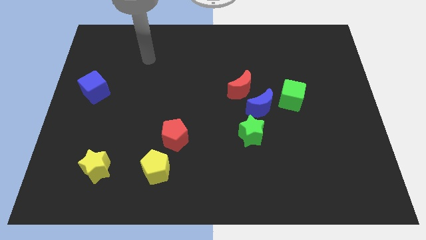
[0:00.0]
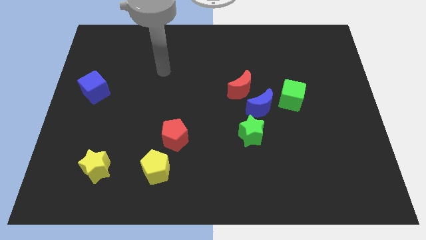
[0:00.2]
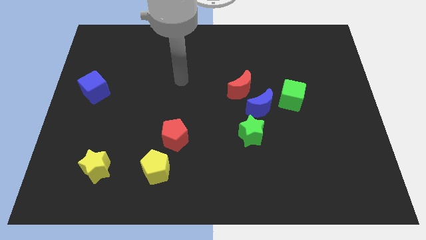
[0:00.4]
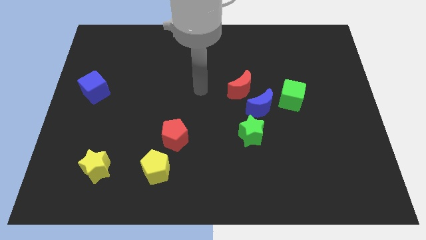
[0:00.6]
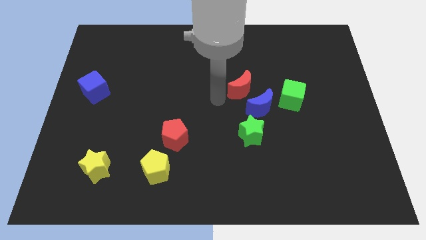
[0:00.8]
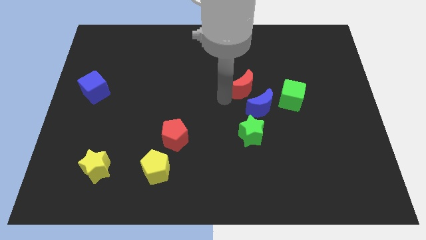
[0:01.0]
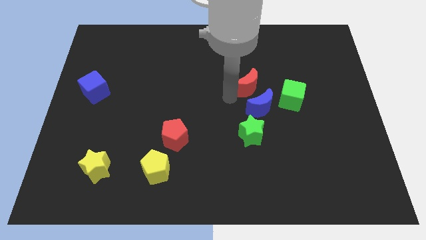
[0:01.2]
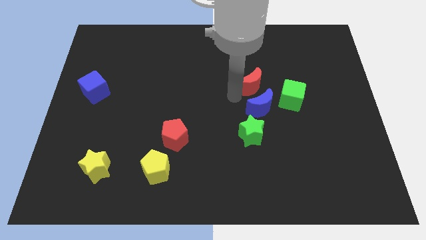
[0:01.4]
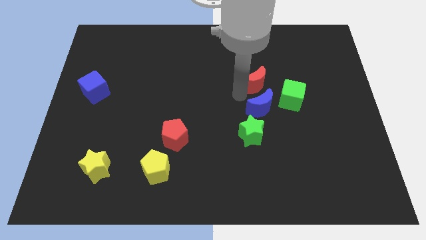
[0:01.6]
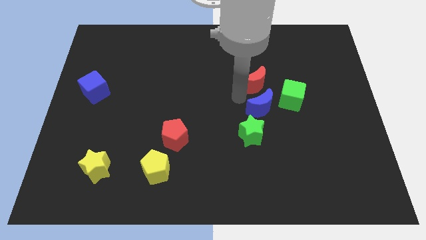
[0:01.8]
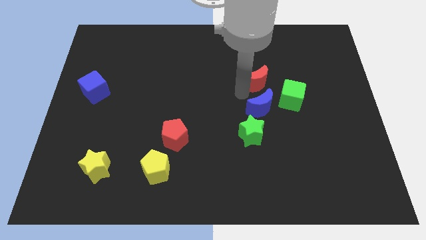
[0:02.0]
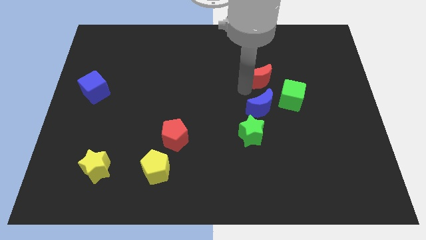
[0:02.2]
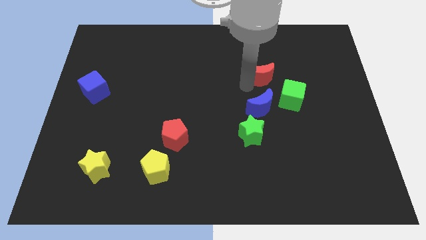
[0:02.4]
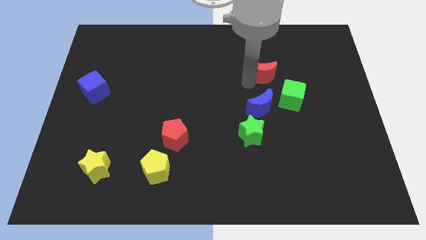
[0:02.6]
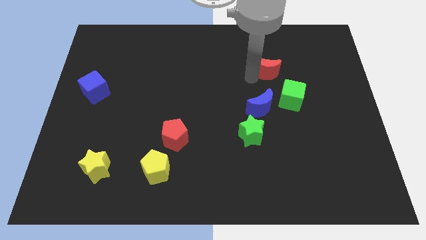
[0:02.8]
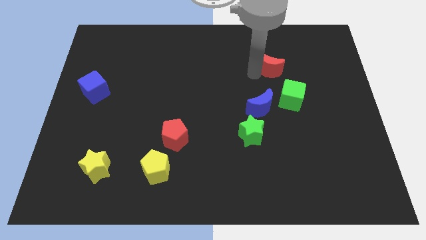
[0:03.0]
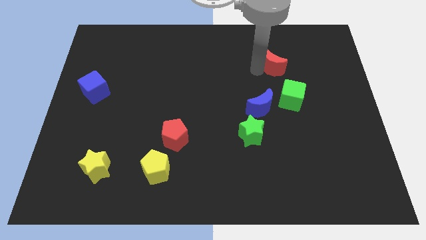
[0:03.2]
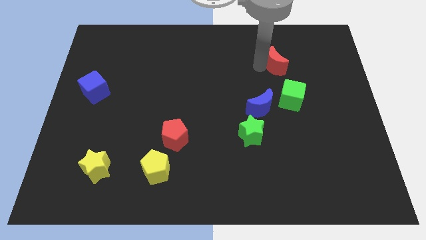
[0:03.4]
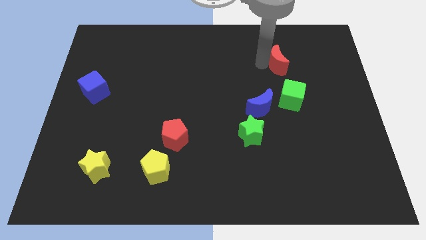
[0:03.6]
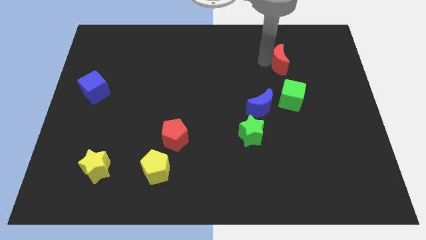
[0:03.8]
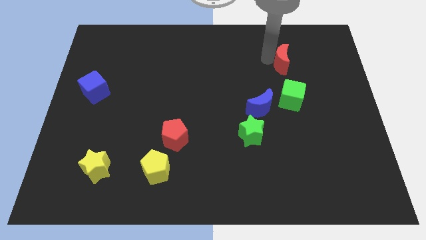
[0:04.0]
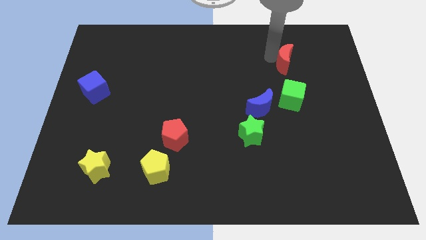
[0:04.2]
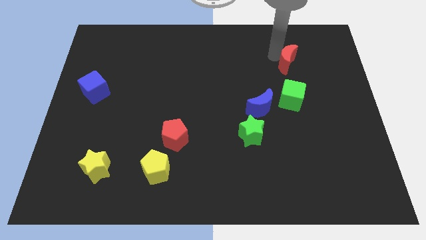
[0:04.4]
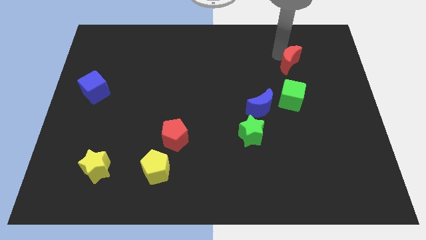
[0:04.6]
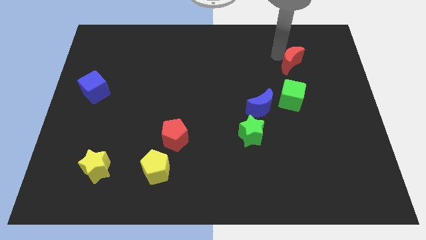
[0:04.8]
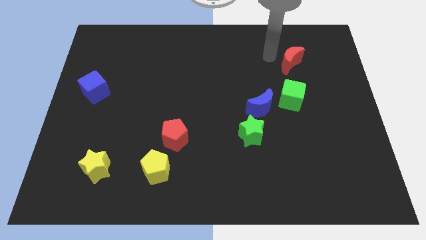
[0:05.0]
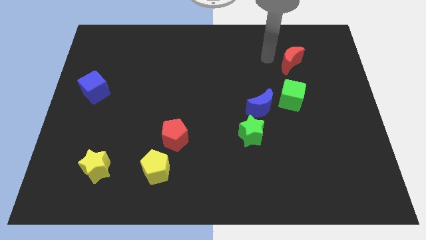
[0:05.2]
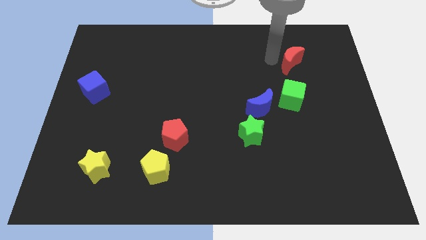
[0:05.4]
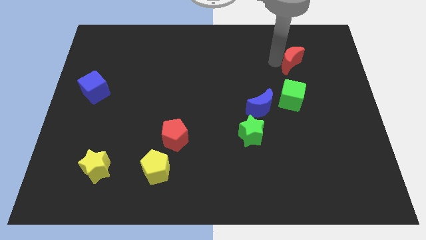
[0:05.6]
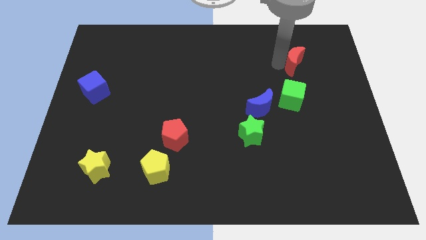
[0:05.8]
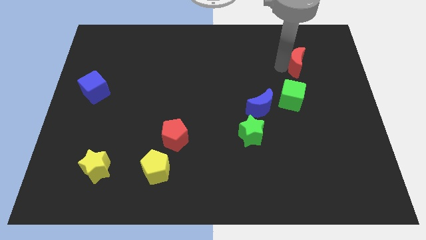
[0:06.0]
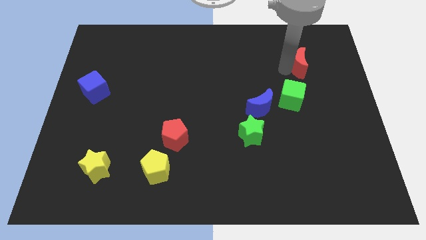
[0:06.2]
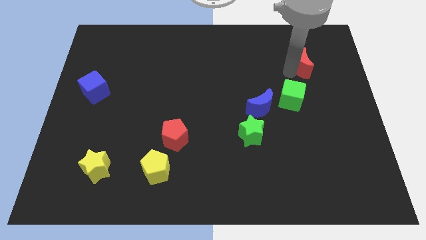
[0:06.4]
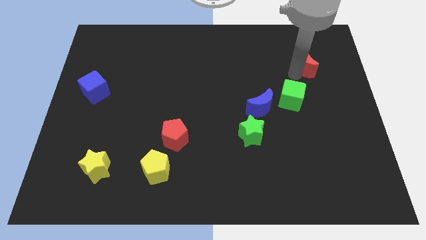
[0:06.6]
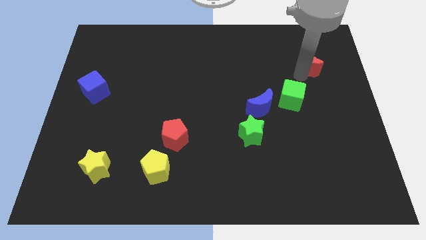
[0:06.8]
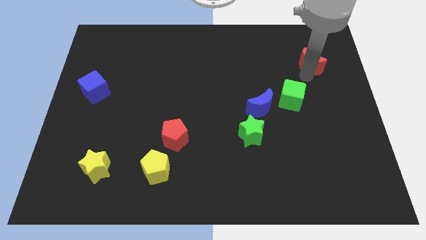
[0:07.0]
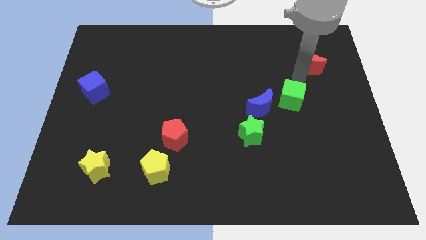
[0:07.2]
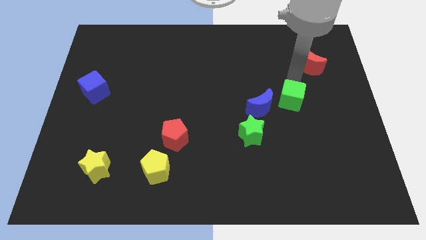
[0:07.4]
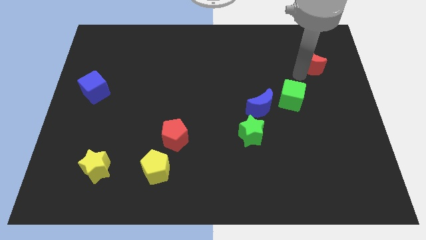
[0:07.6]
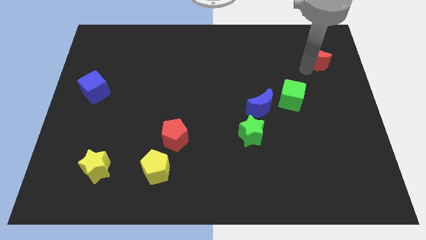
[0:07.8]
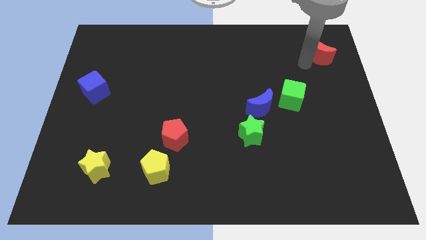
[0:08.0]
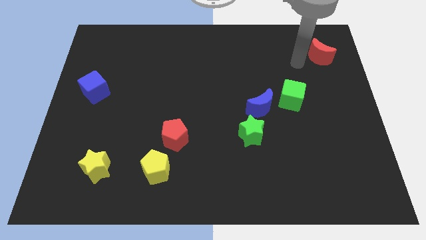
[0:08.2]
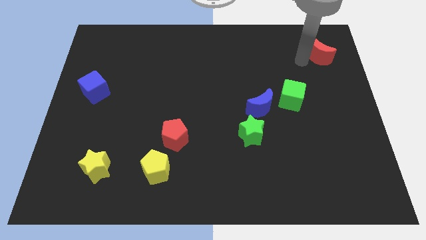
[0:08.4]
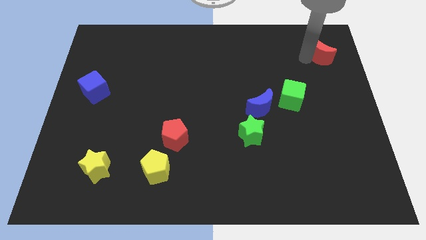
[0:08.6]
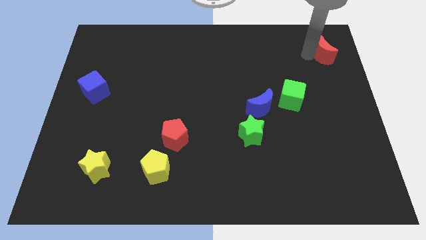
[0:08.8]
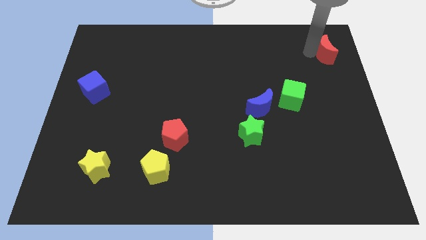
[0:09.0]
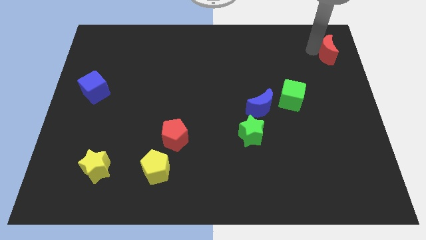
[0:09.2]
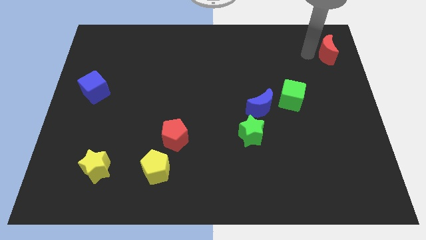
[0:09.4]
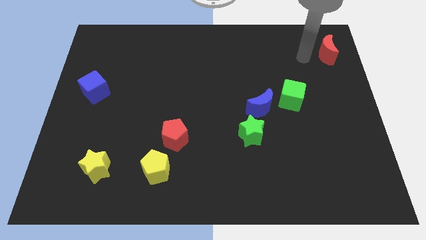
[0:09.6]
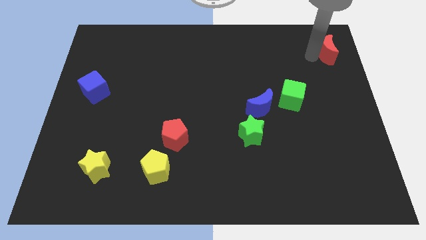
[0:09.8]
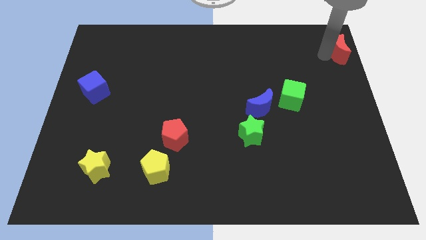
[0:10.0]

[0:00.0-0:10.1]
put the red moon to the top right corner

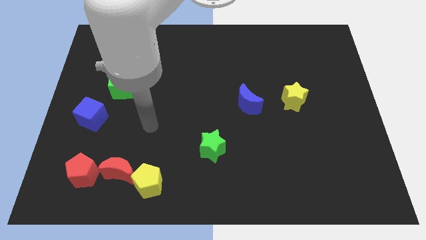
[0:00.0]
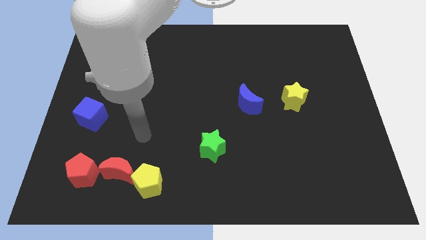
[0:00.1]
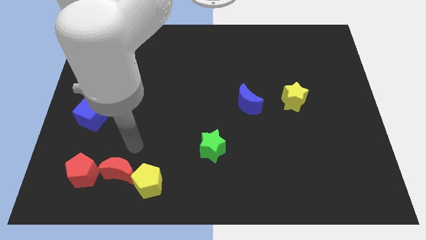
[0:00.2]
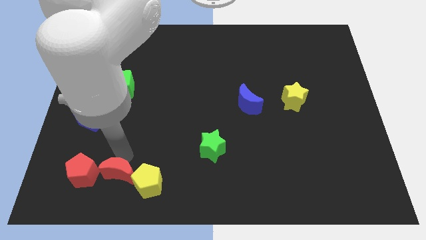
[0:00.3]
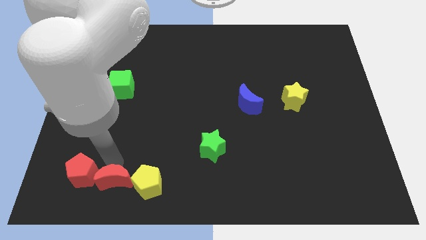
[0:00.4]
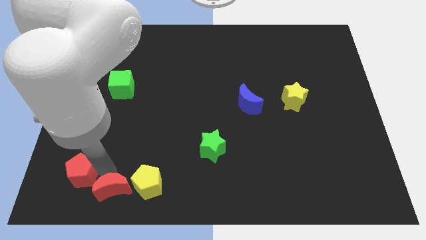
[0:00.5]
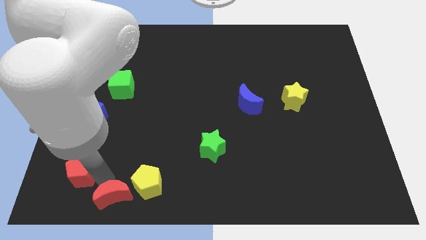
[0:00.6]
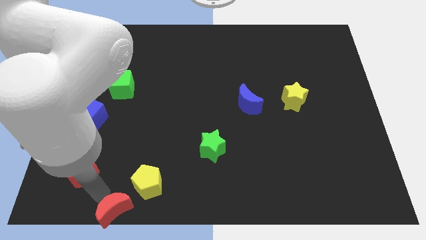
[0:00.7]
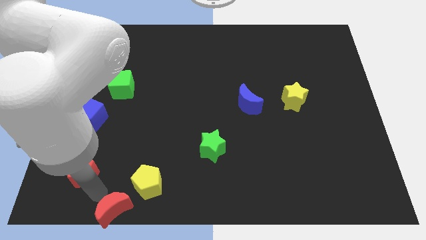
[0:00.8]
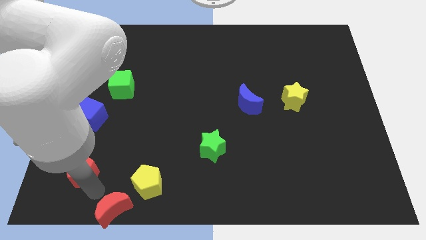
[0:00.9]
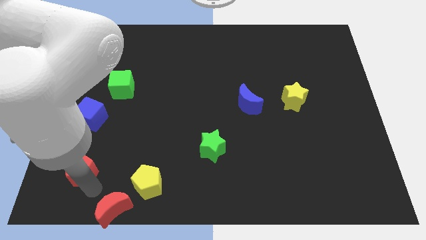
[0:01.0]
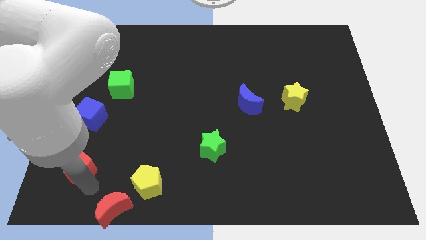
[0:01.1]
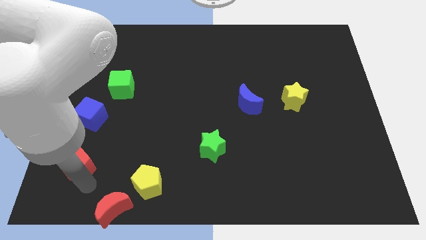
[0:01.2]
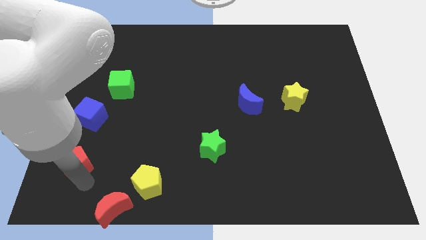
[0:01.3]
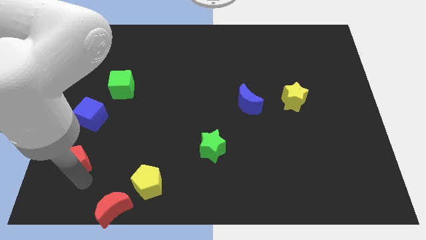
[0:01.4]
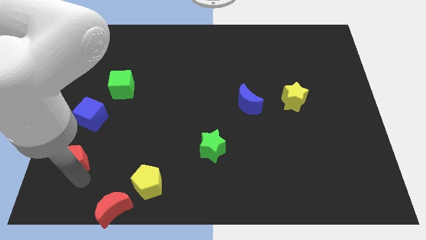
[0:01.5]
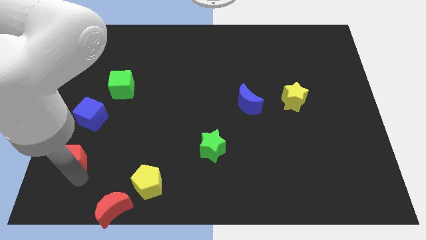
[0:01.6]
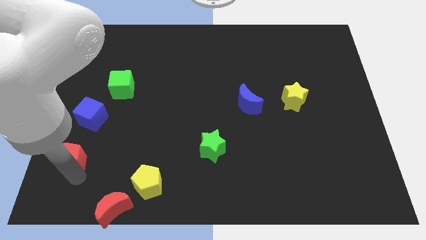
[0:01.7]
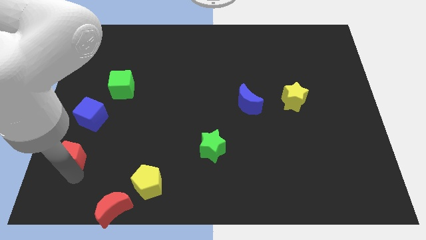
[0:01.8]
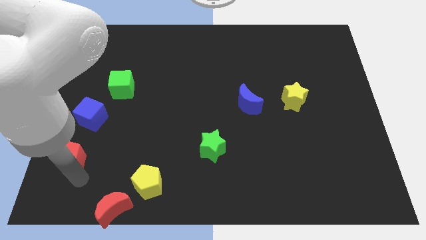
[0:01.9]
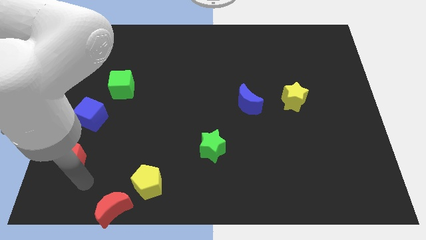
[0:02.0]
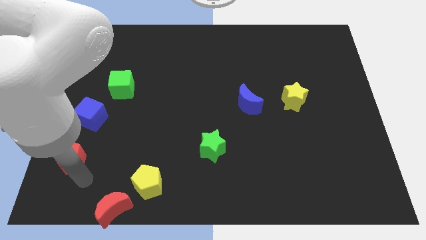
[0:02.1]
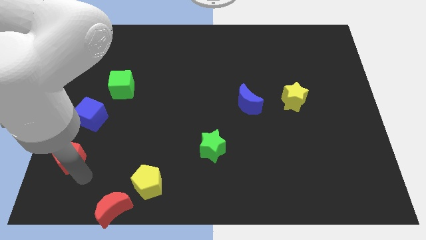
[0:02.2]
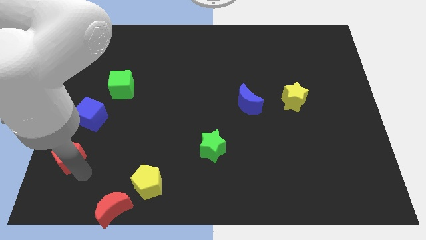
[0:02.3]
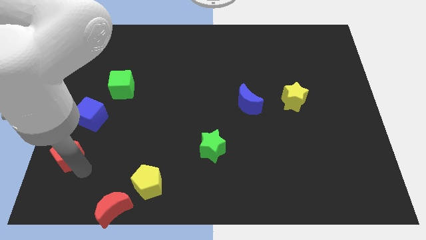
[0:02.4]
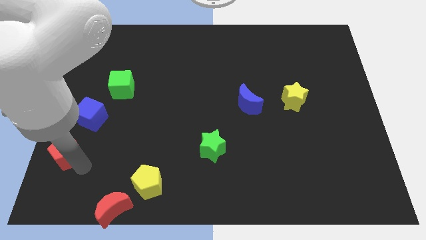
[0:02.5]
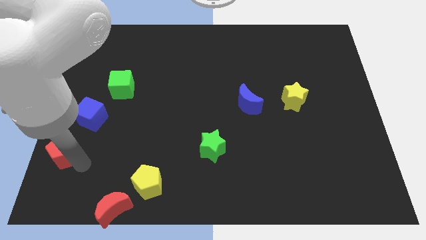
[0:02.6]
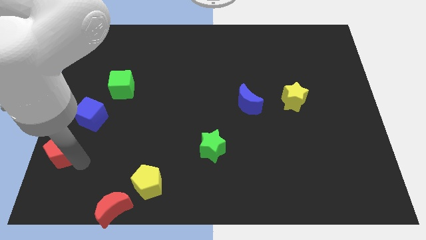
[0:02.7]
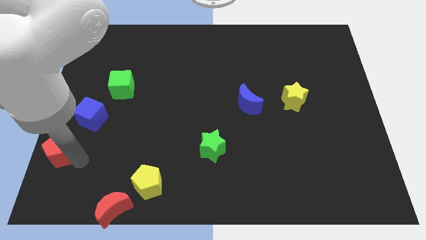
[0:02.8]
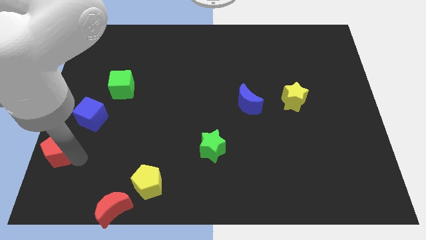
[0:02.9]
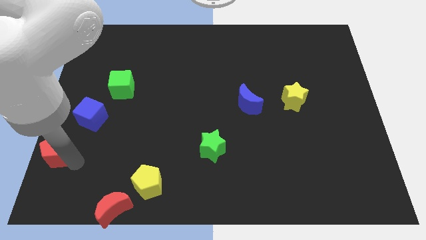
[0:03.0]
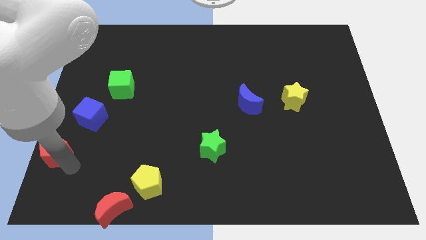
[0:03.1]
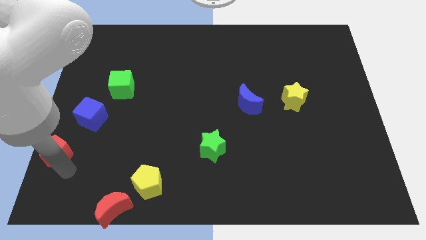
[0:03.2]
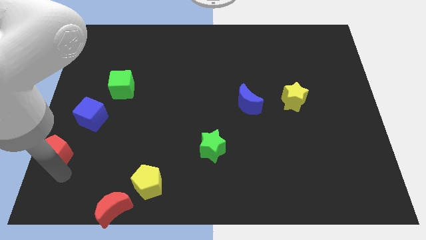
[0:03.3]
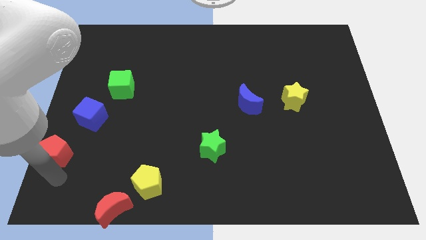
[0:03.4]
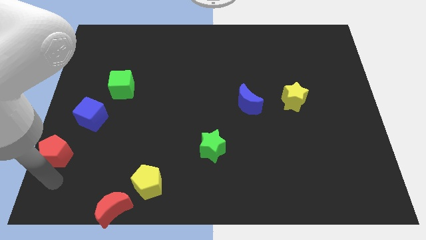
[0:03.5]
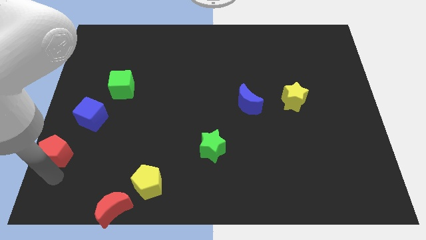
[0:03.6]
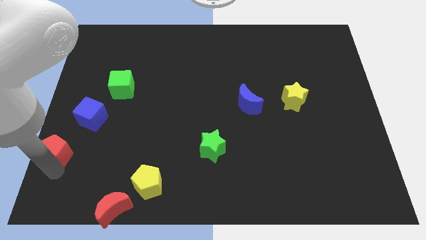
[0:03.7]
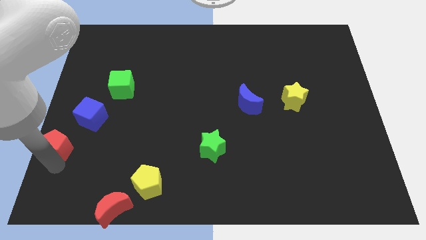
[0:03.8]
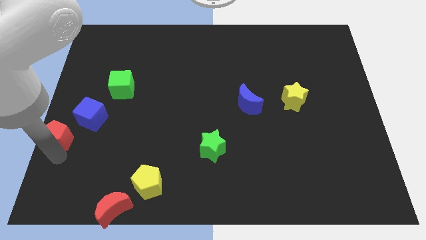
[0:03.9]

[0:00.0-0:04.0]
put the red pentagon to the left side of the board
